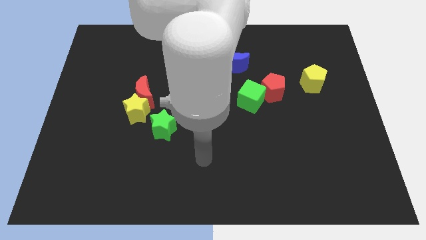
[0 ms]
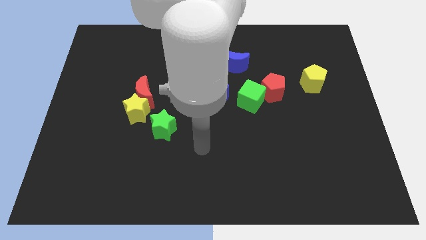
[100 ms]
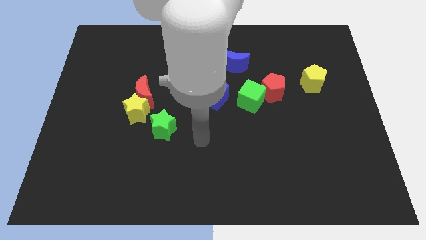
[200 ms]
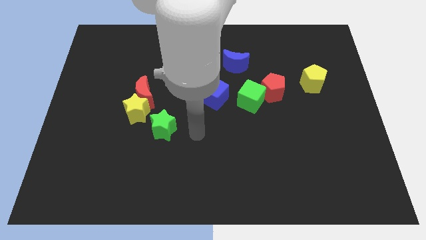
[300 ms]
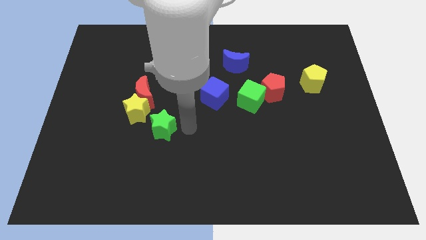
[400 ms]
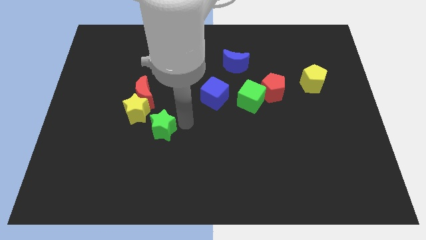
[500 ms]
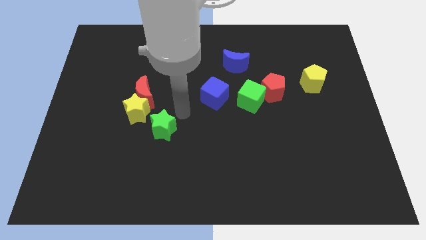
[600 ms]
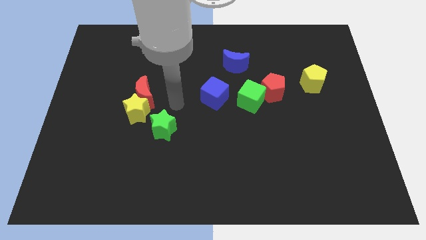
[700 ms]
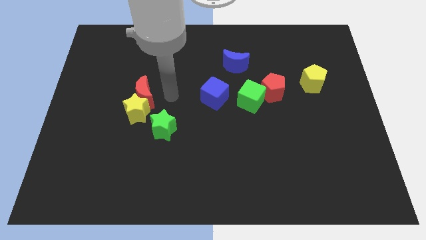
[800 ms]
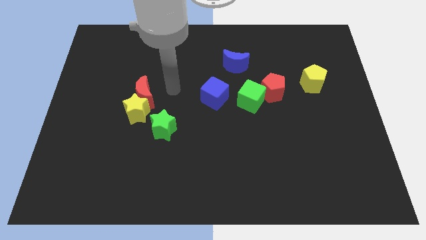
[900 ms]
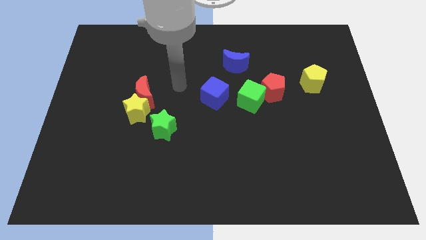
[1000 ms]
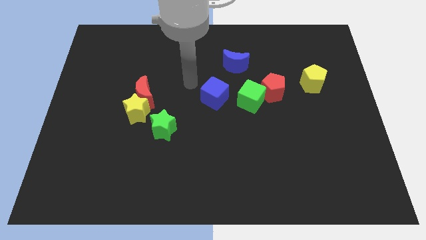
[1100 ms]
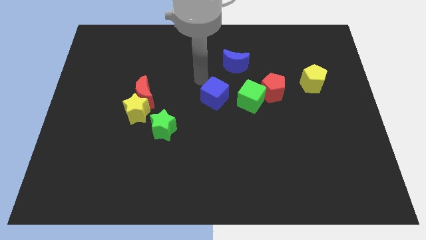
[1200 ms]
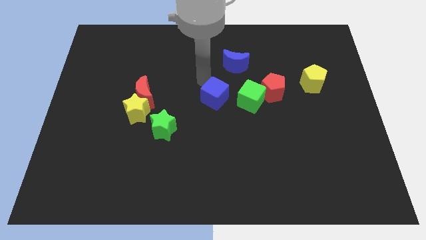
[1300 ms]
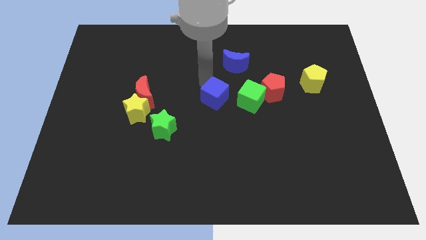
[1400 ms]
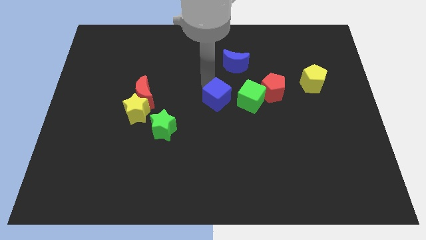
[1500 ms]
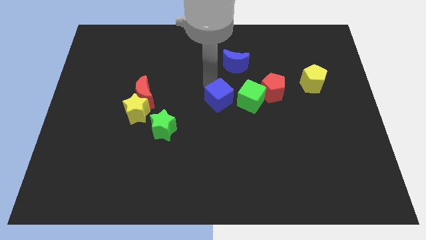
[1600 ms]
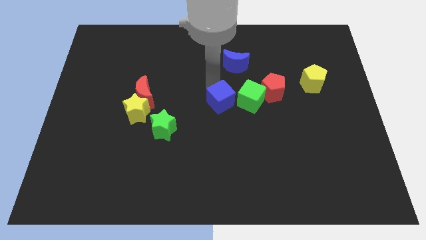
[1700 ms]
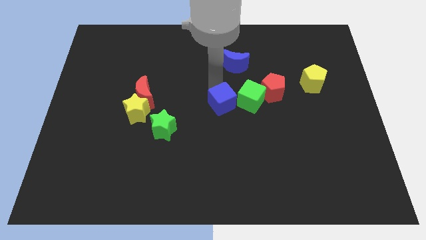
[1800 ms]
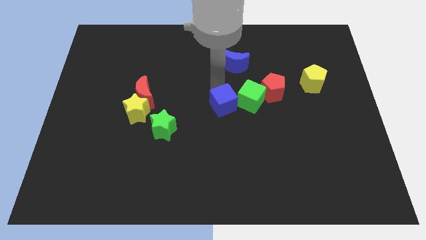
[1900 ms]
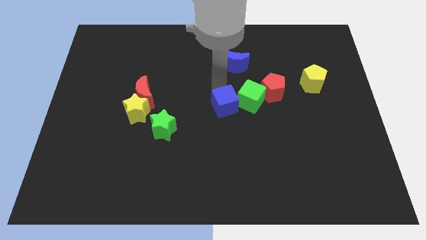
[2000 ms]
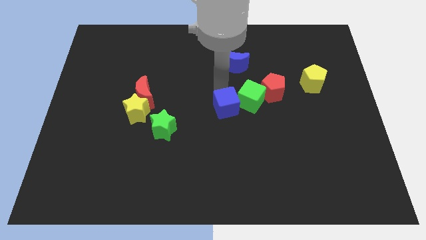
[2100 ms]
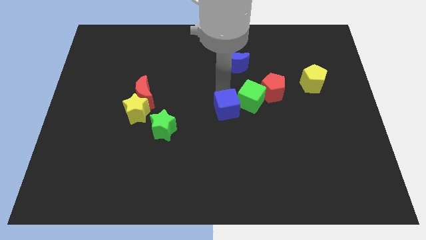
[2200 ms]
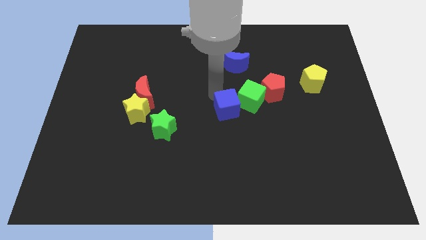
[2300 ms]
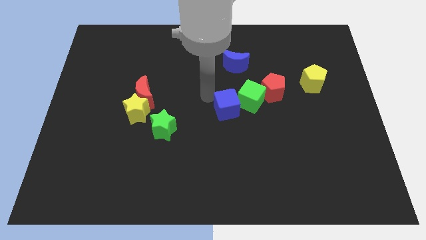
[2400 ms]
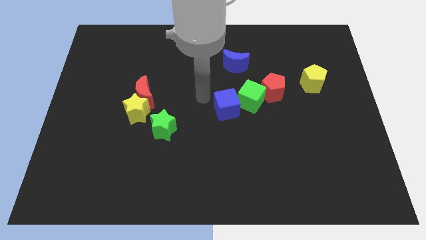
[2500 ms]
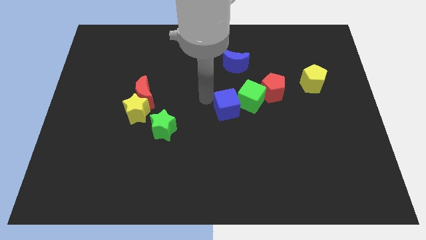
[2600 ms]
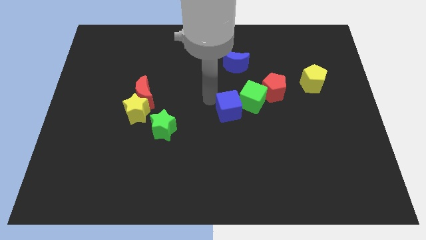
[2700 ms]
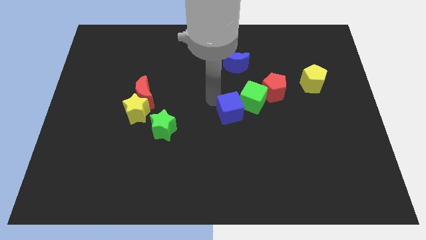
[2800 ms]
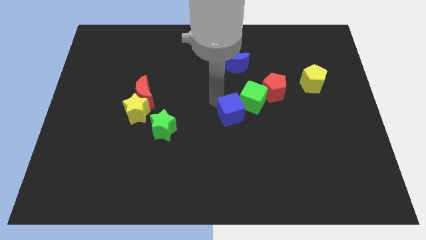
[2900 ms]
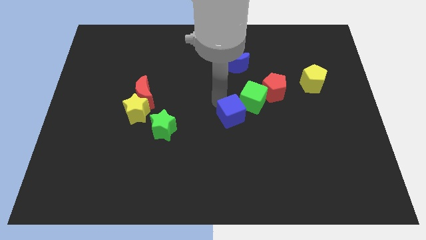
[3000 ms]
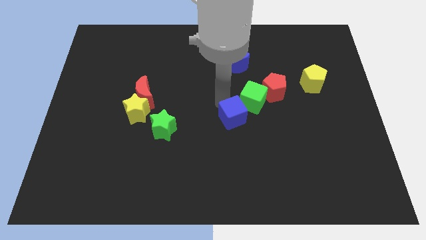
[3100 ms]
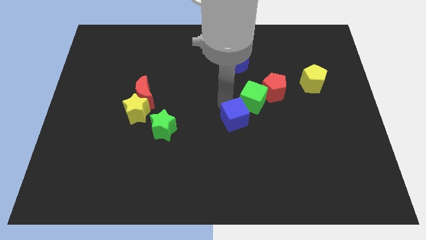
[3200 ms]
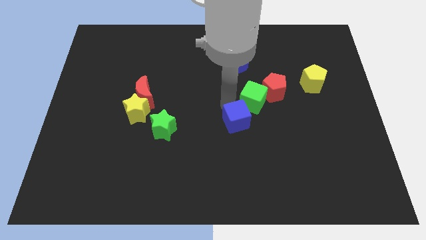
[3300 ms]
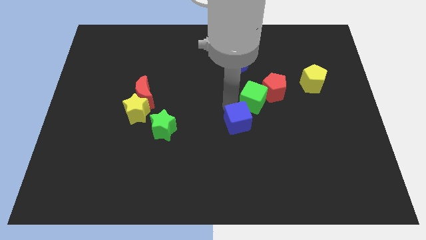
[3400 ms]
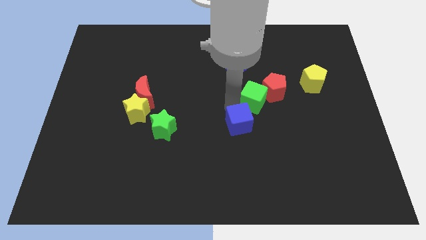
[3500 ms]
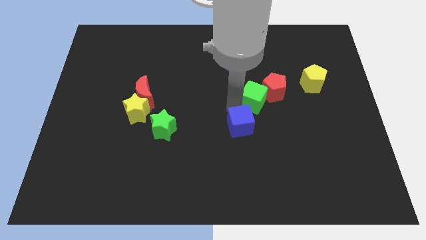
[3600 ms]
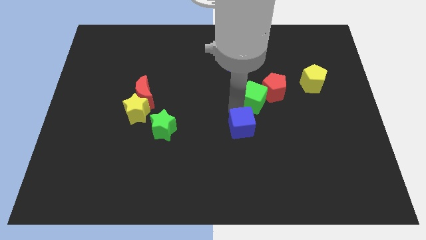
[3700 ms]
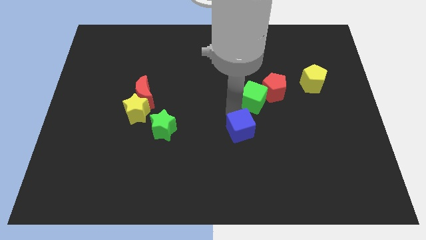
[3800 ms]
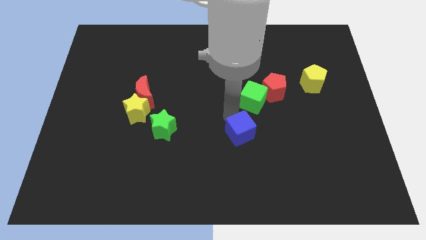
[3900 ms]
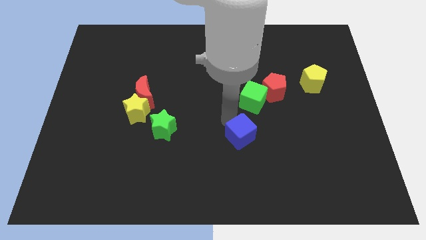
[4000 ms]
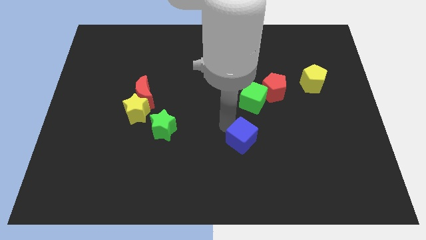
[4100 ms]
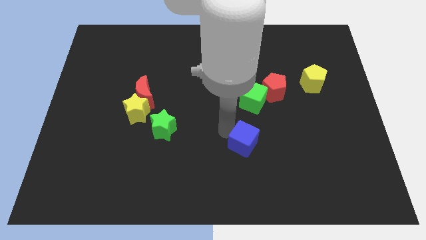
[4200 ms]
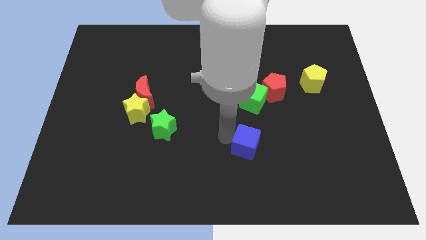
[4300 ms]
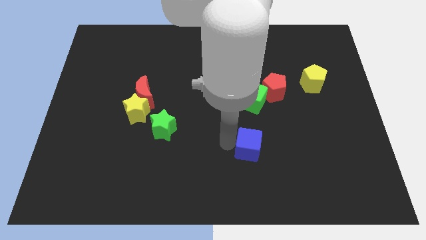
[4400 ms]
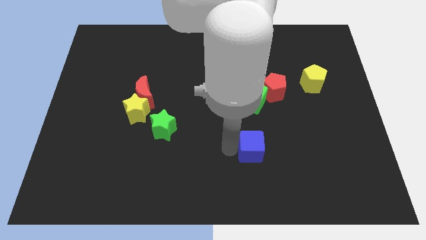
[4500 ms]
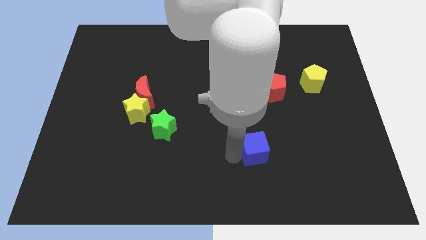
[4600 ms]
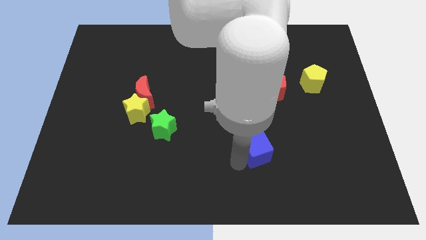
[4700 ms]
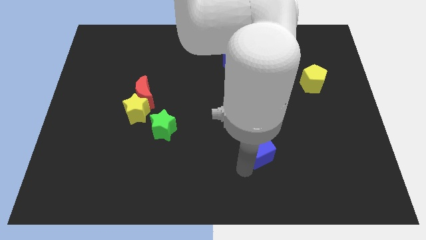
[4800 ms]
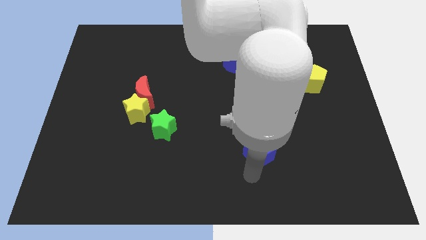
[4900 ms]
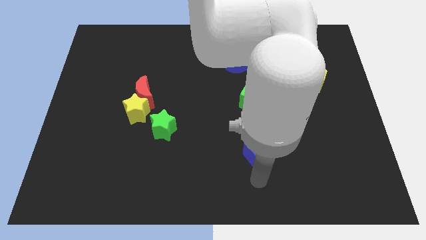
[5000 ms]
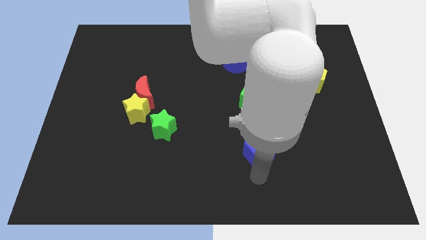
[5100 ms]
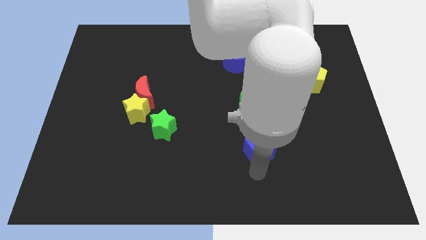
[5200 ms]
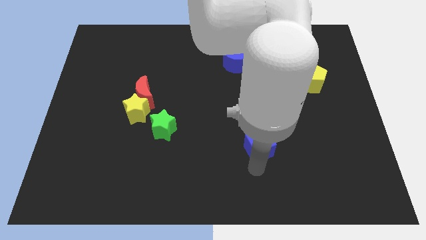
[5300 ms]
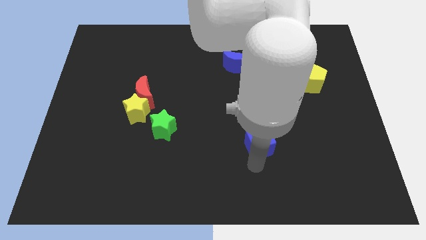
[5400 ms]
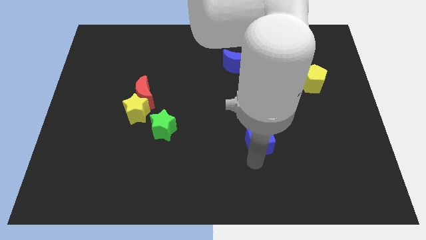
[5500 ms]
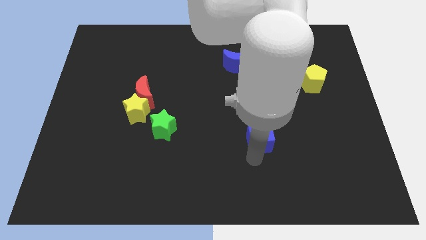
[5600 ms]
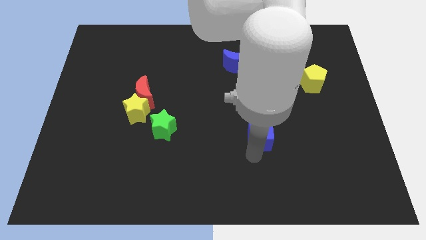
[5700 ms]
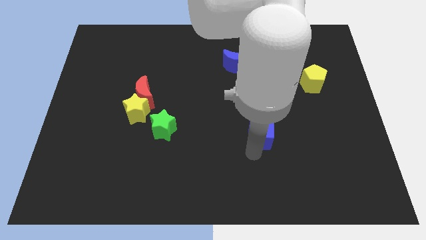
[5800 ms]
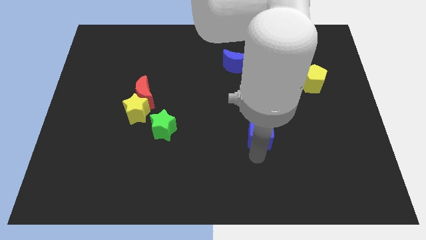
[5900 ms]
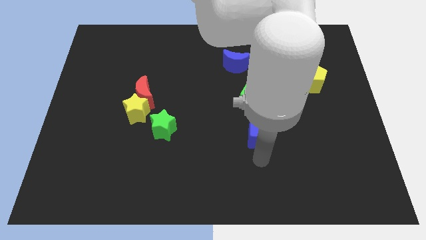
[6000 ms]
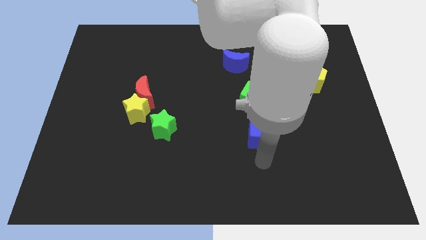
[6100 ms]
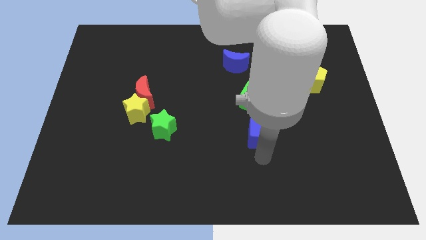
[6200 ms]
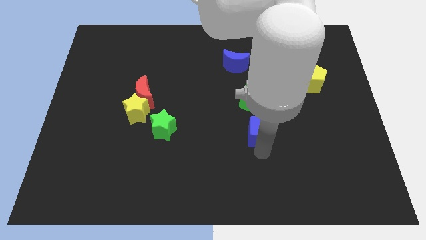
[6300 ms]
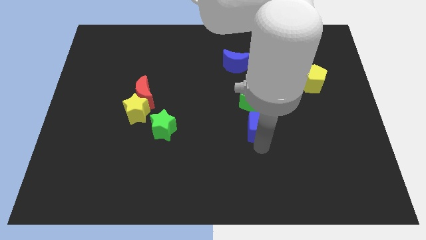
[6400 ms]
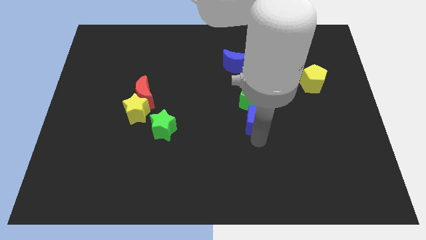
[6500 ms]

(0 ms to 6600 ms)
put the blue cube to the bottom right side of the green cube

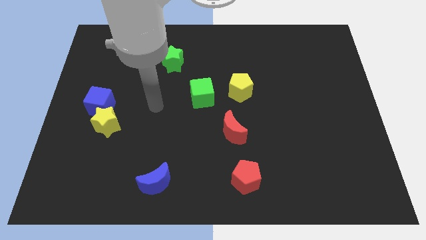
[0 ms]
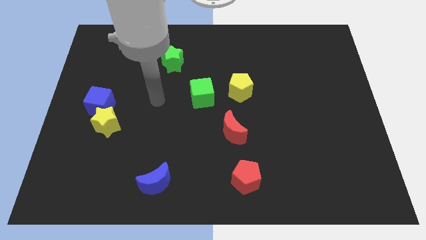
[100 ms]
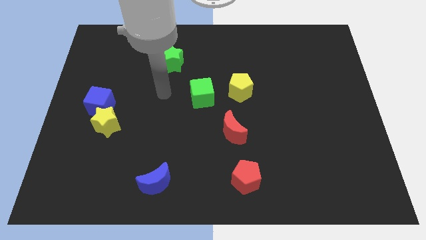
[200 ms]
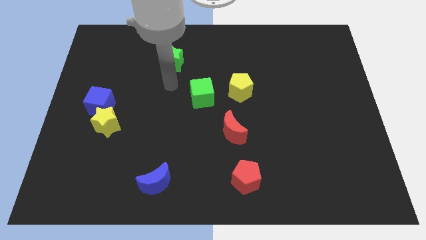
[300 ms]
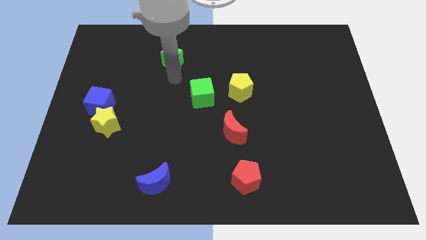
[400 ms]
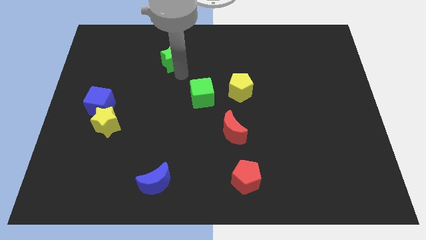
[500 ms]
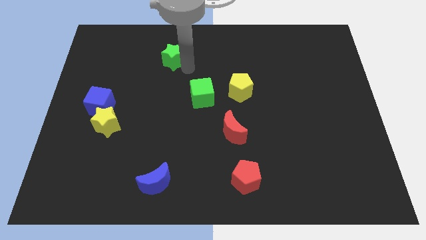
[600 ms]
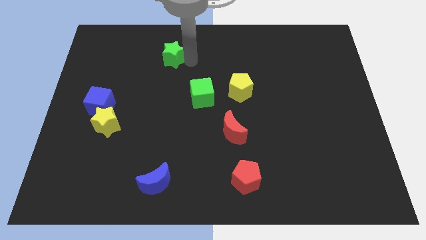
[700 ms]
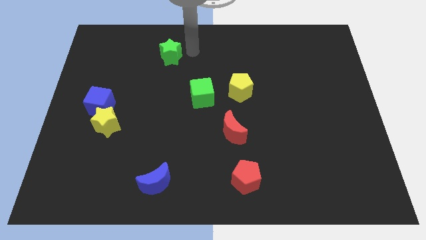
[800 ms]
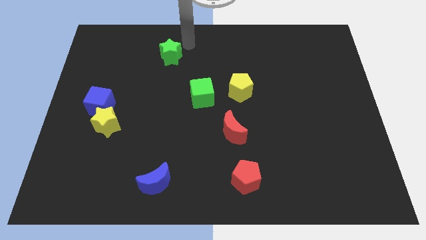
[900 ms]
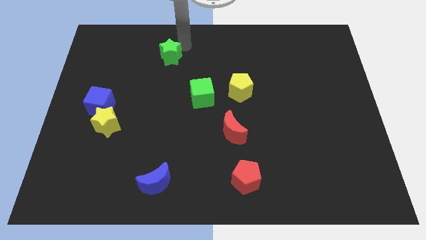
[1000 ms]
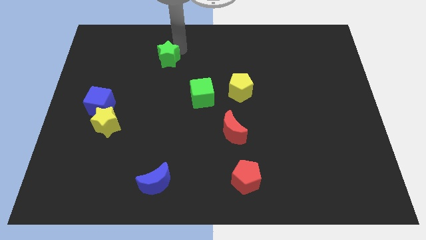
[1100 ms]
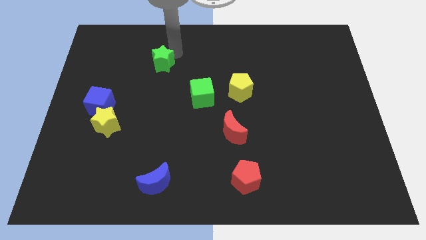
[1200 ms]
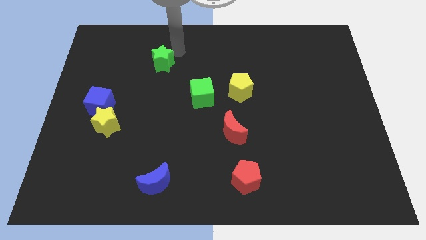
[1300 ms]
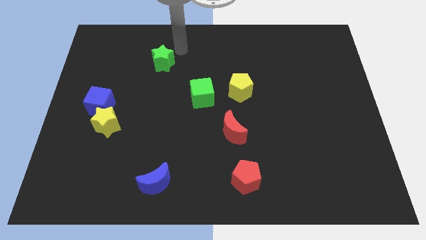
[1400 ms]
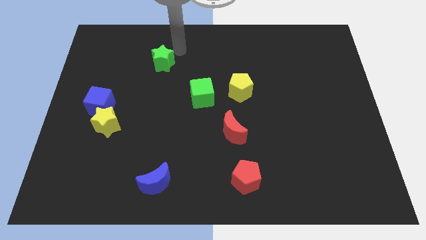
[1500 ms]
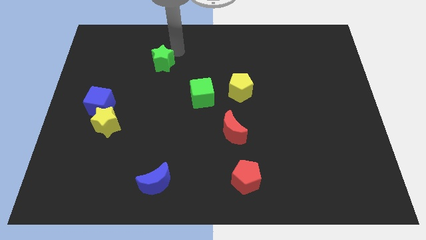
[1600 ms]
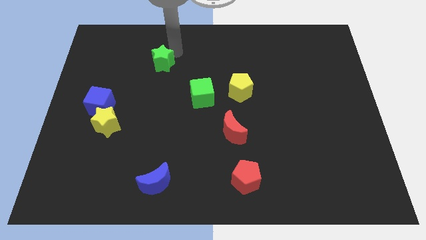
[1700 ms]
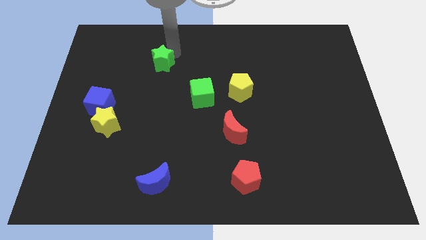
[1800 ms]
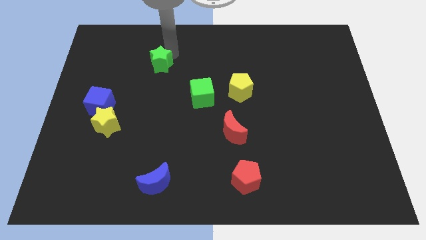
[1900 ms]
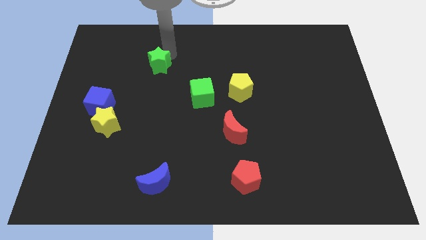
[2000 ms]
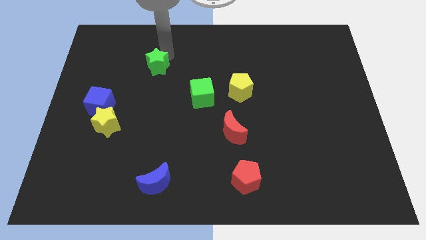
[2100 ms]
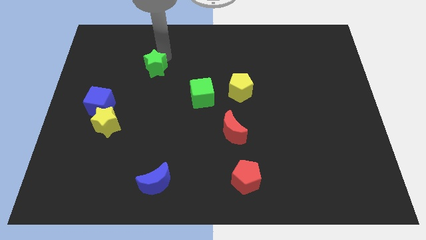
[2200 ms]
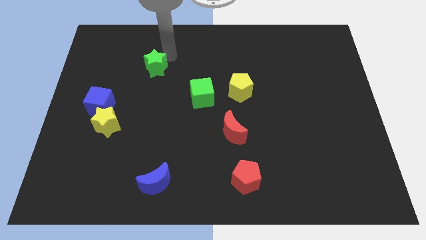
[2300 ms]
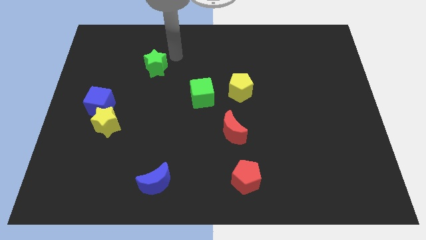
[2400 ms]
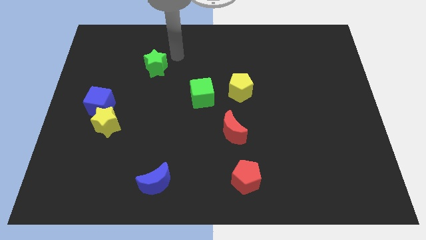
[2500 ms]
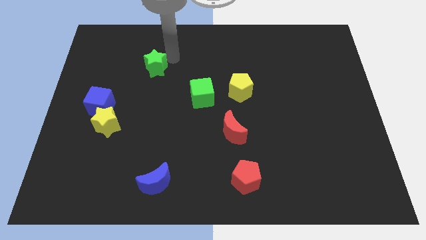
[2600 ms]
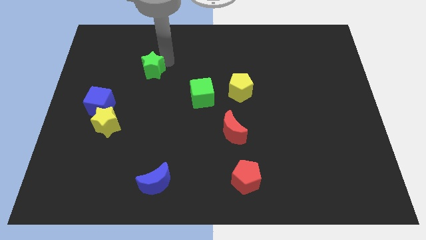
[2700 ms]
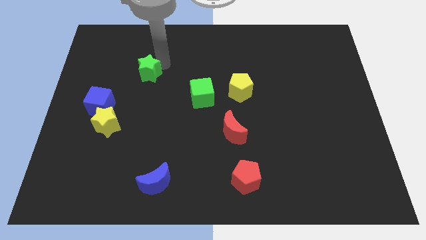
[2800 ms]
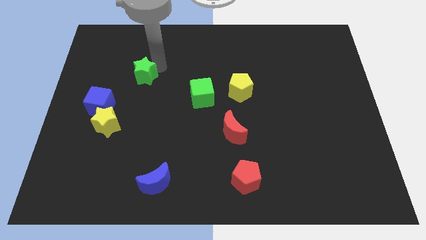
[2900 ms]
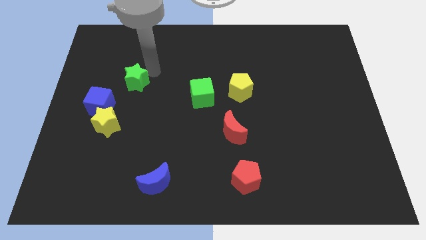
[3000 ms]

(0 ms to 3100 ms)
slide the green star to the top of the yellow star
